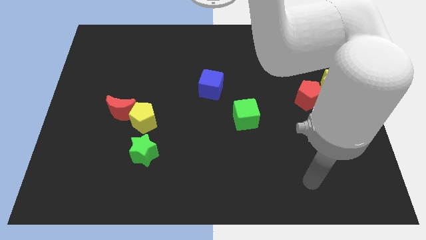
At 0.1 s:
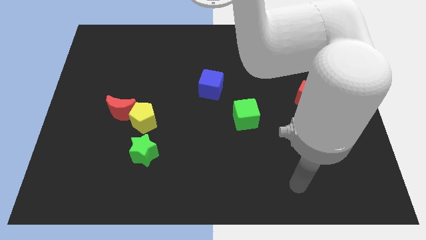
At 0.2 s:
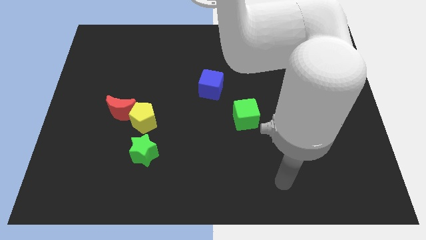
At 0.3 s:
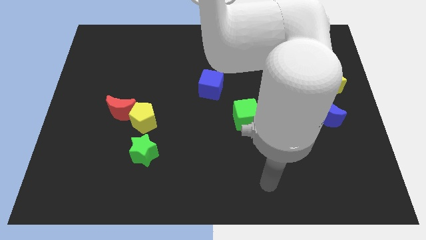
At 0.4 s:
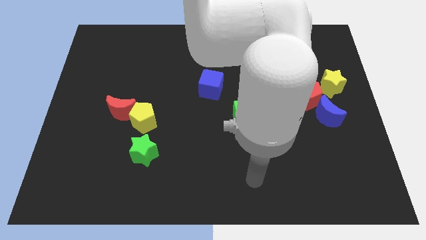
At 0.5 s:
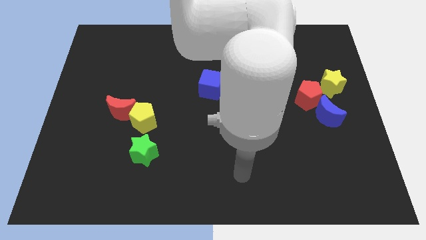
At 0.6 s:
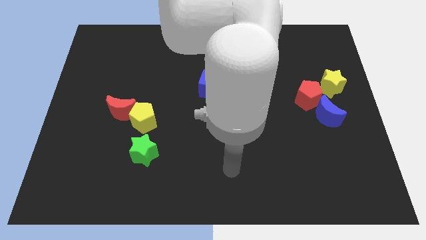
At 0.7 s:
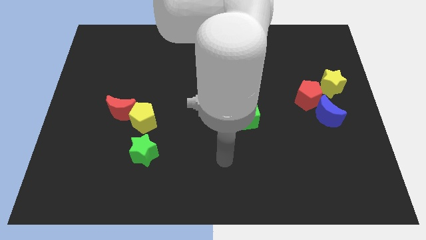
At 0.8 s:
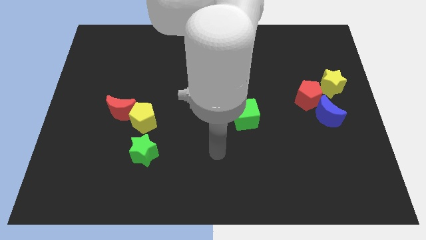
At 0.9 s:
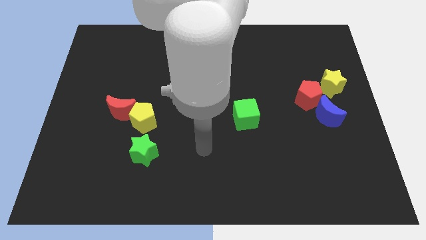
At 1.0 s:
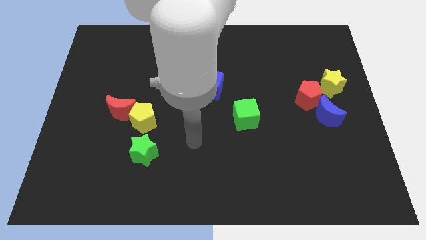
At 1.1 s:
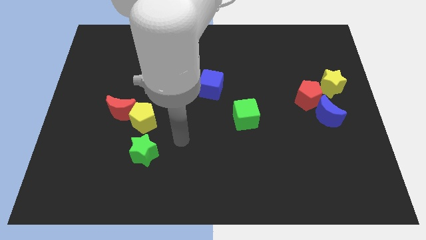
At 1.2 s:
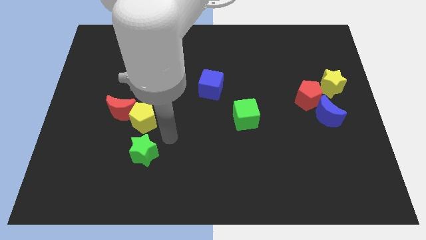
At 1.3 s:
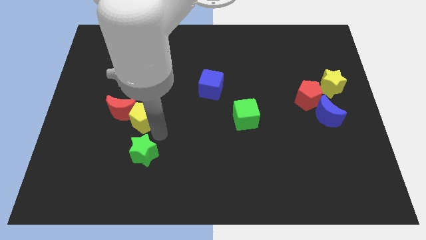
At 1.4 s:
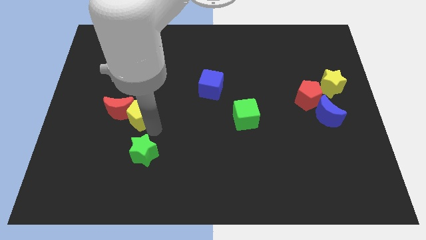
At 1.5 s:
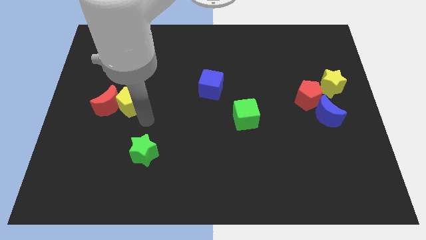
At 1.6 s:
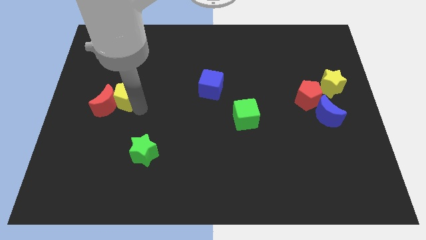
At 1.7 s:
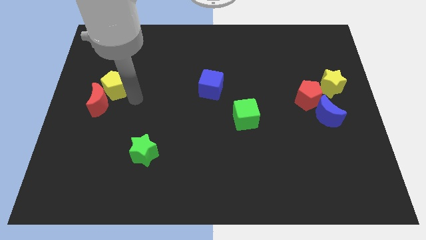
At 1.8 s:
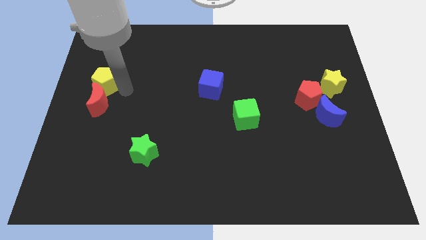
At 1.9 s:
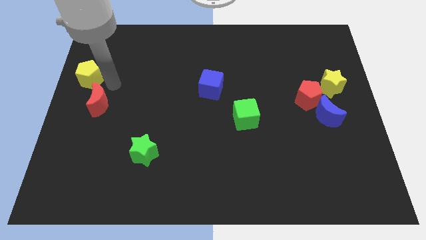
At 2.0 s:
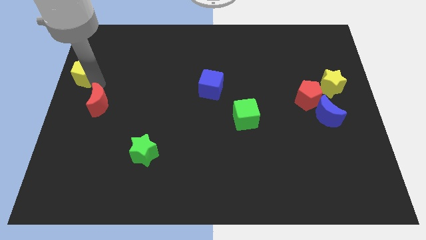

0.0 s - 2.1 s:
pull the red moon apart from the yellow pentagon

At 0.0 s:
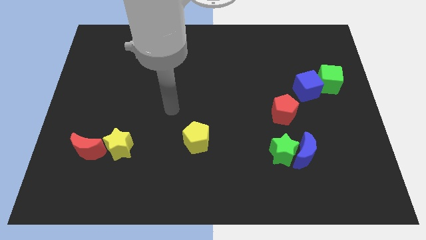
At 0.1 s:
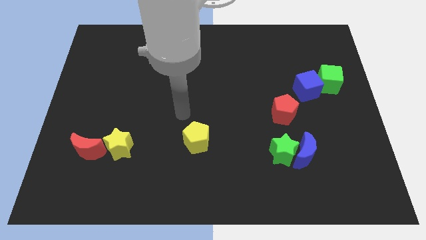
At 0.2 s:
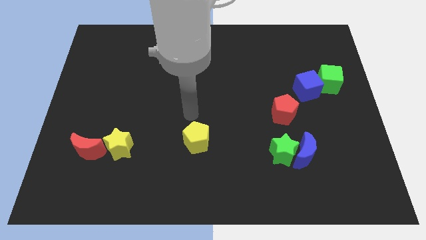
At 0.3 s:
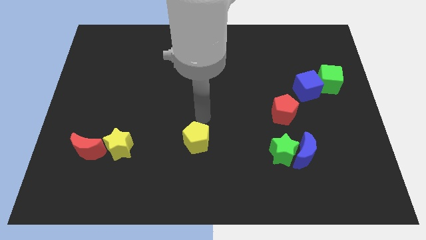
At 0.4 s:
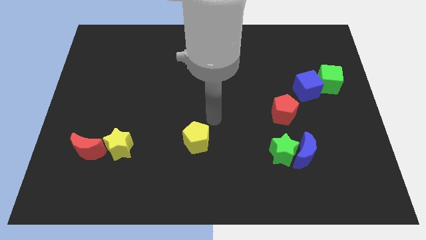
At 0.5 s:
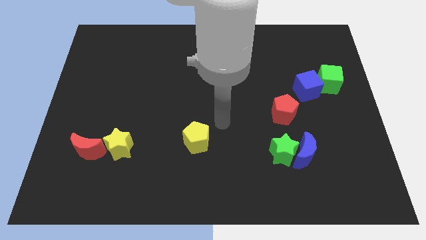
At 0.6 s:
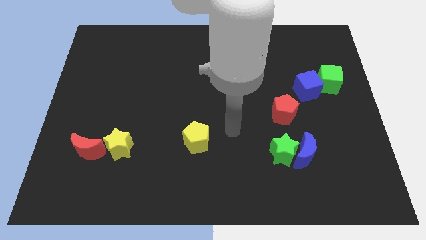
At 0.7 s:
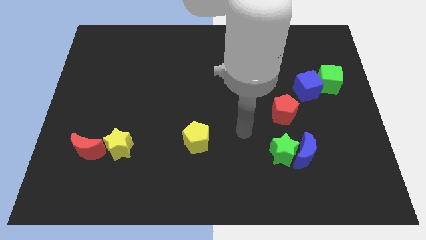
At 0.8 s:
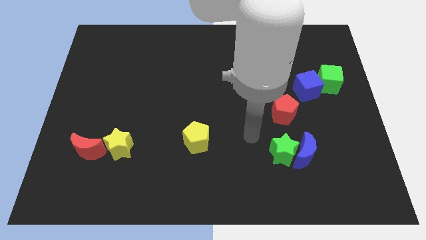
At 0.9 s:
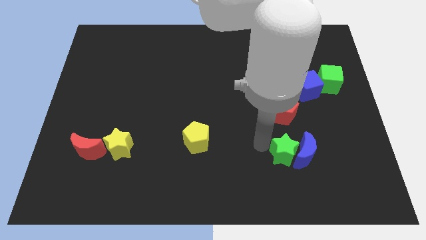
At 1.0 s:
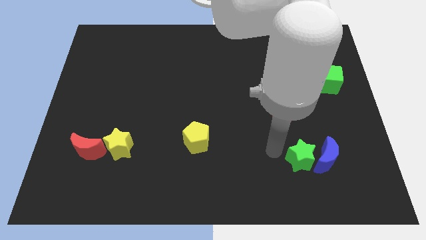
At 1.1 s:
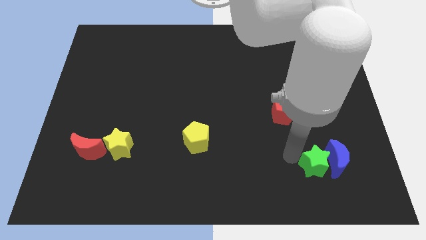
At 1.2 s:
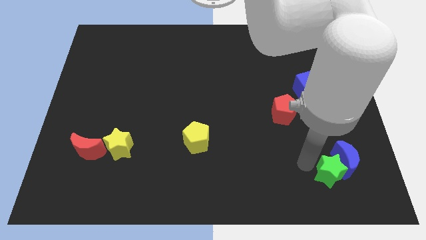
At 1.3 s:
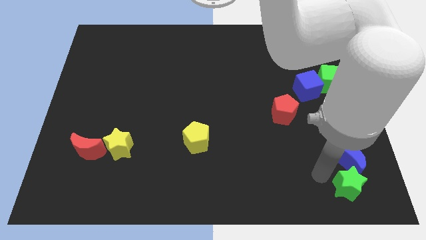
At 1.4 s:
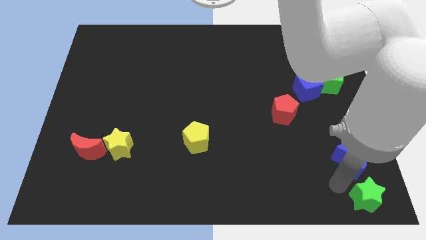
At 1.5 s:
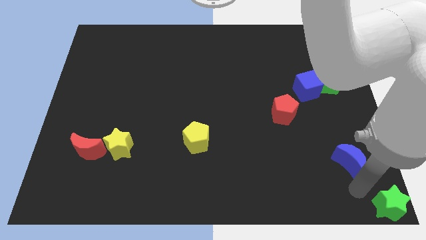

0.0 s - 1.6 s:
separate the blue moon from the green star

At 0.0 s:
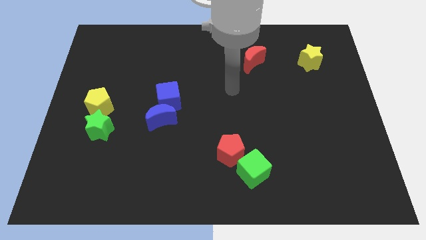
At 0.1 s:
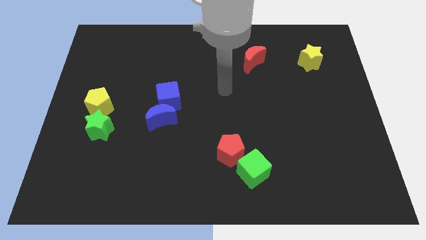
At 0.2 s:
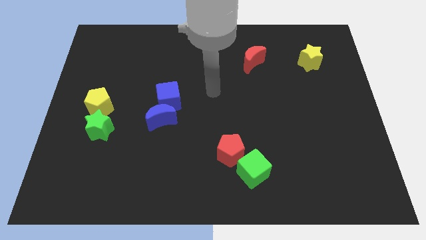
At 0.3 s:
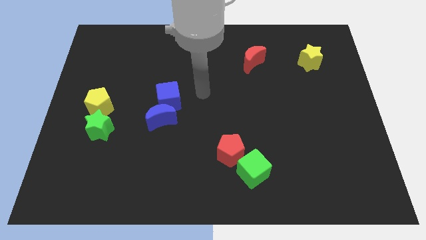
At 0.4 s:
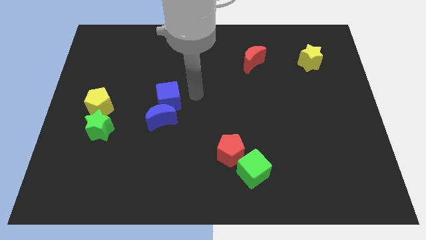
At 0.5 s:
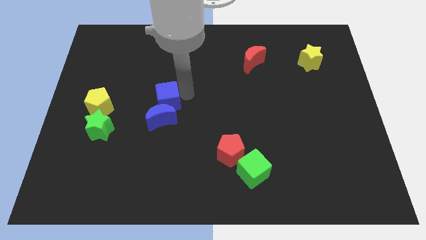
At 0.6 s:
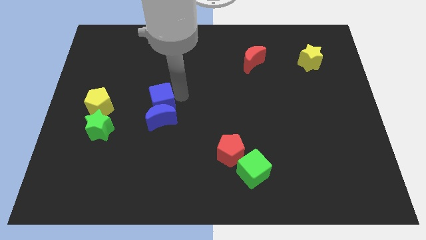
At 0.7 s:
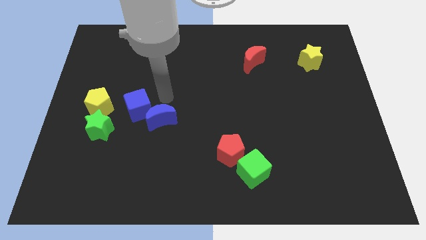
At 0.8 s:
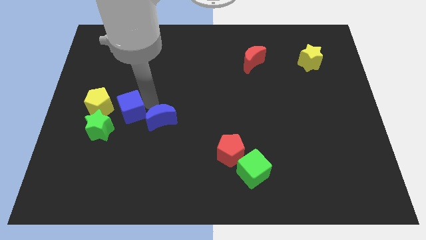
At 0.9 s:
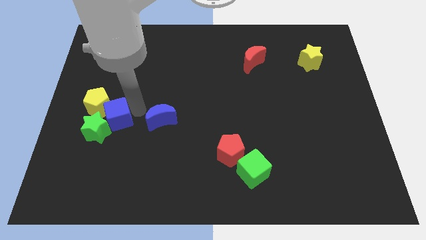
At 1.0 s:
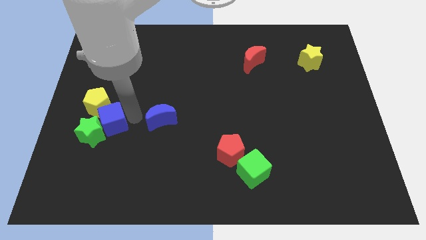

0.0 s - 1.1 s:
move the blue moon away from the blue cube

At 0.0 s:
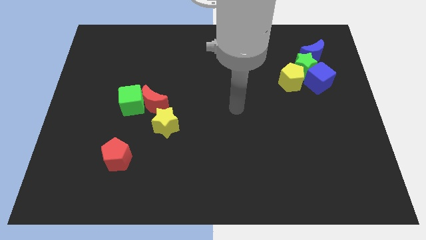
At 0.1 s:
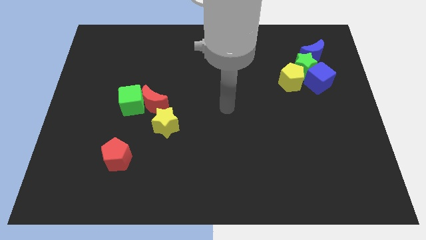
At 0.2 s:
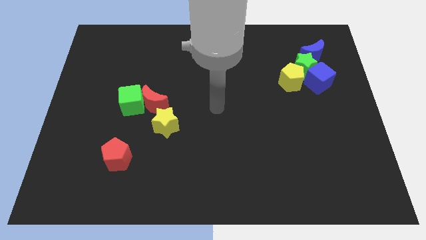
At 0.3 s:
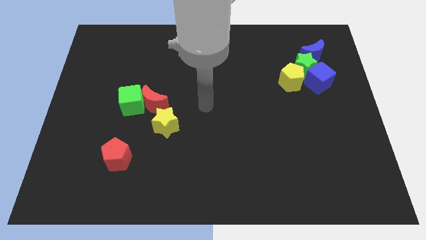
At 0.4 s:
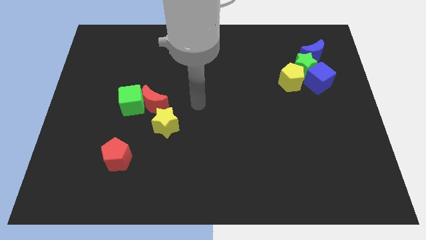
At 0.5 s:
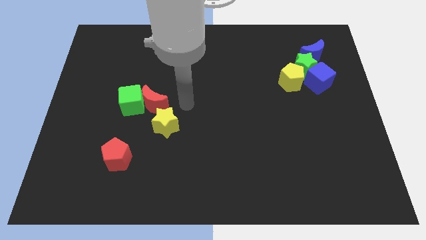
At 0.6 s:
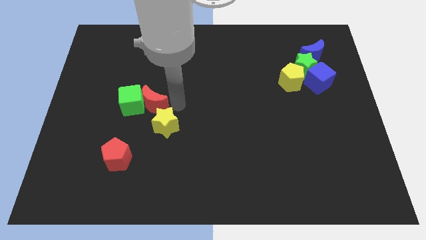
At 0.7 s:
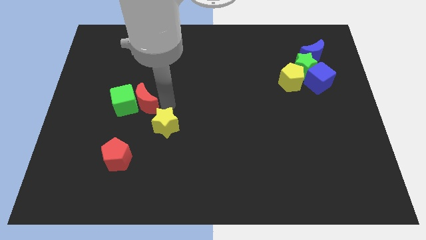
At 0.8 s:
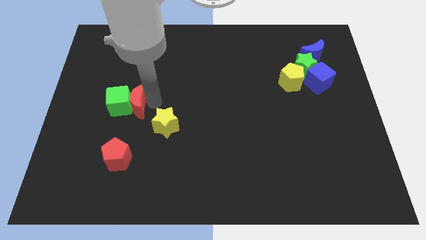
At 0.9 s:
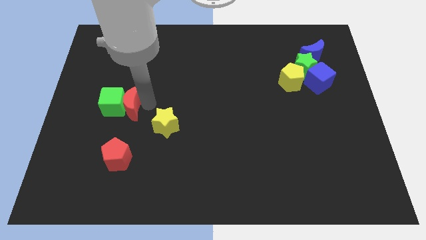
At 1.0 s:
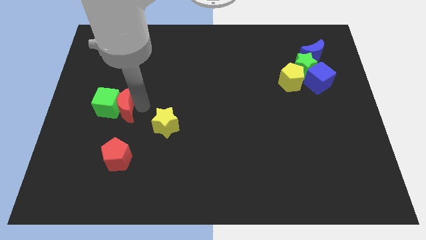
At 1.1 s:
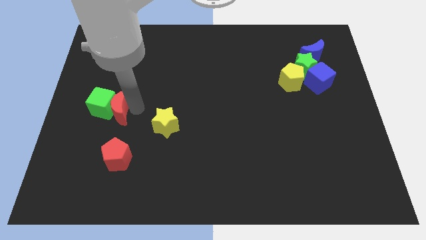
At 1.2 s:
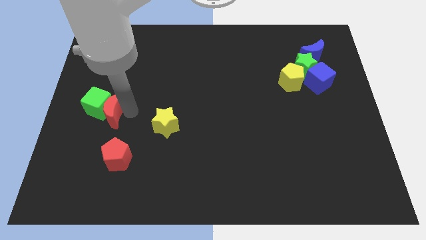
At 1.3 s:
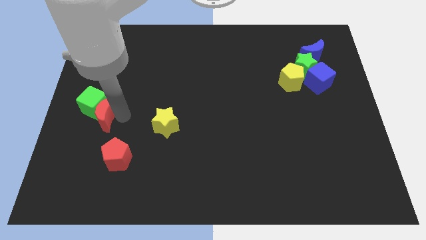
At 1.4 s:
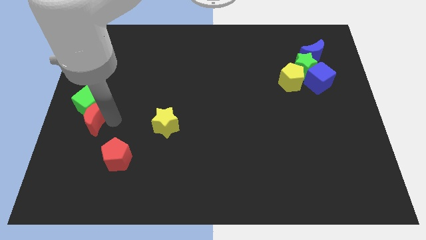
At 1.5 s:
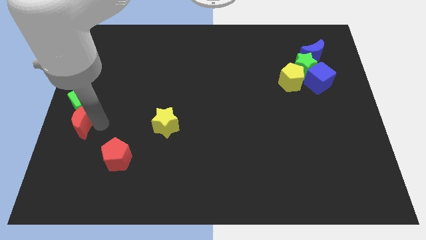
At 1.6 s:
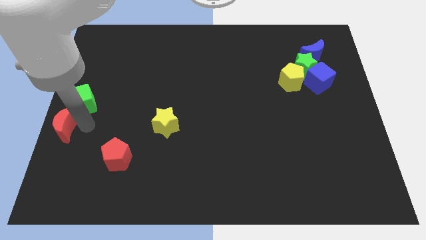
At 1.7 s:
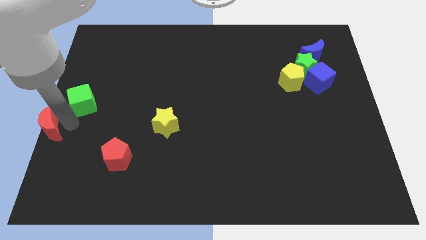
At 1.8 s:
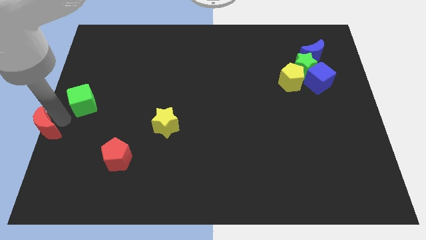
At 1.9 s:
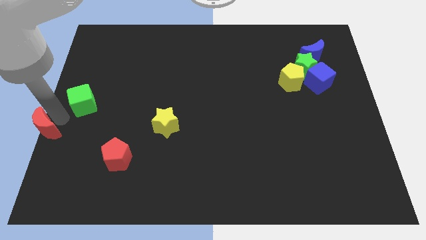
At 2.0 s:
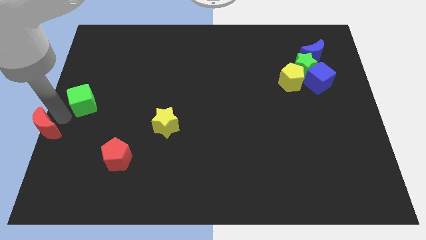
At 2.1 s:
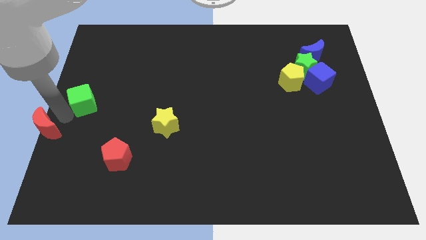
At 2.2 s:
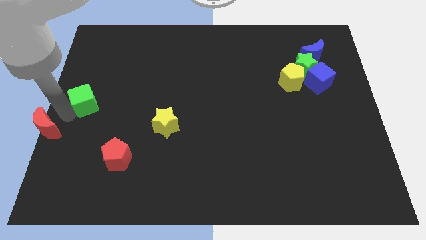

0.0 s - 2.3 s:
separate the green cube from the red moon

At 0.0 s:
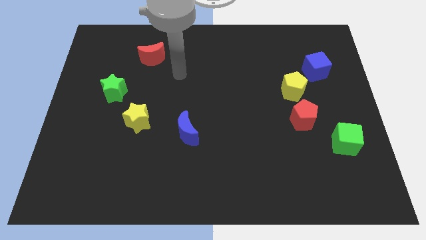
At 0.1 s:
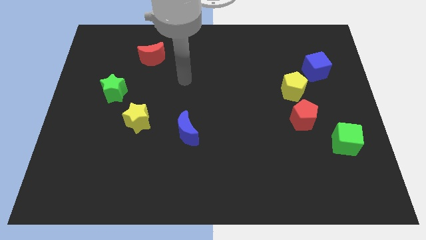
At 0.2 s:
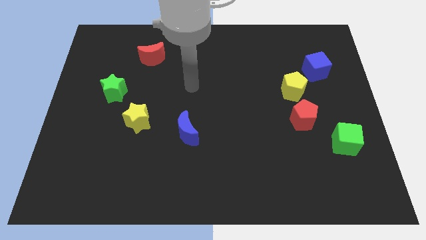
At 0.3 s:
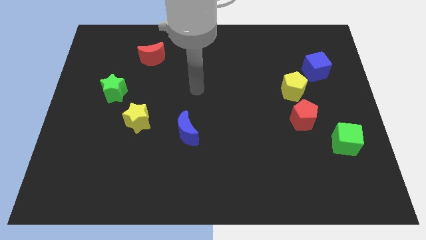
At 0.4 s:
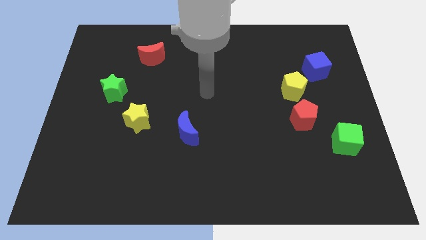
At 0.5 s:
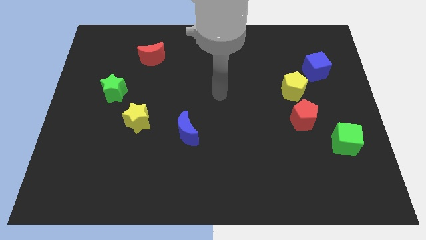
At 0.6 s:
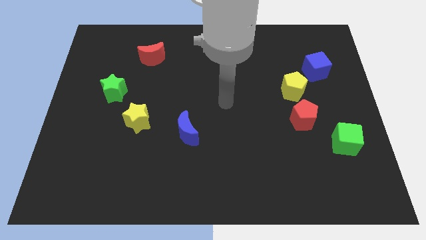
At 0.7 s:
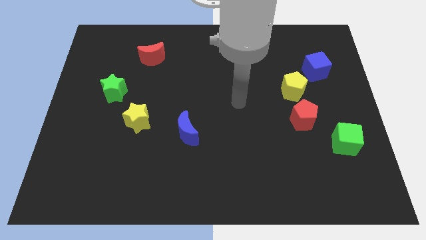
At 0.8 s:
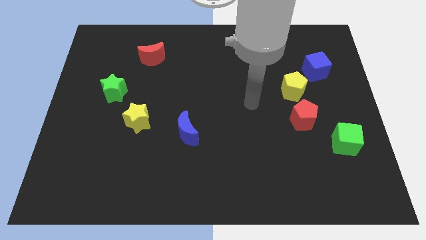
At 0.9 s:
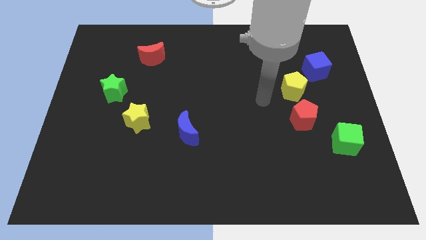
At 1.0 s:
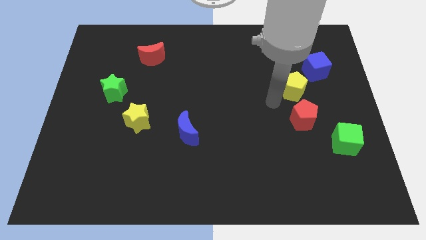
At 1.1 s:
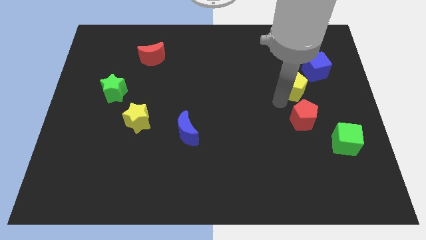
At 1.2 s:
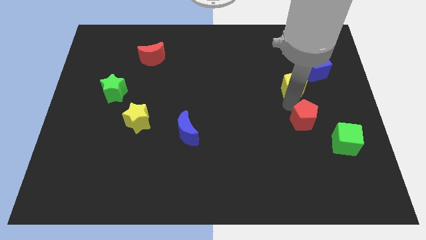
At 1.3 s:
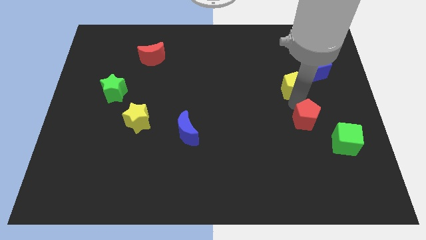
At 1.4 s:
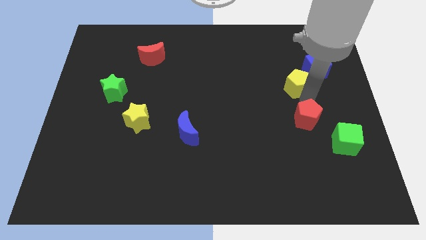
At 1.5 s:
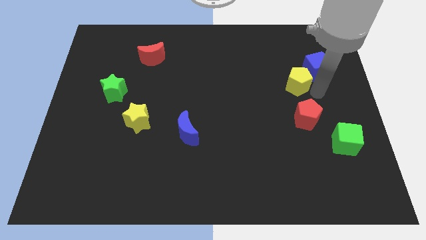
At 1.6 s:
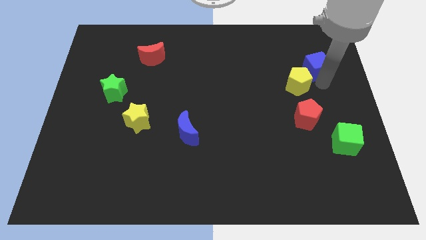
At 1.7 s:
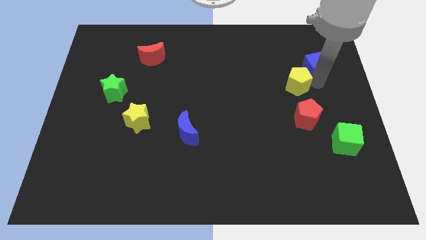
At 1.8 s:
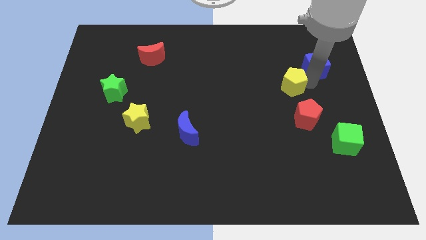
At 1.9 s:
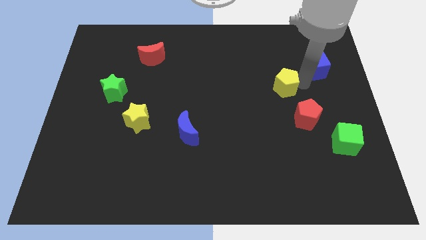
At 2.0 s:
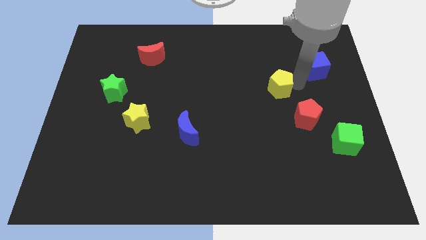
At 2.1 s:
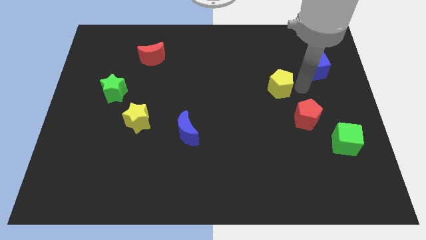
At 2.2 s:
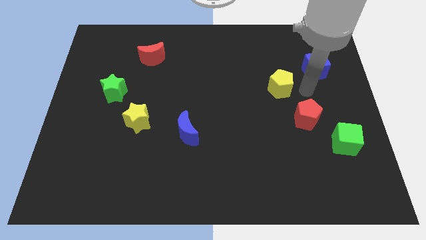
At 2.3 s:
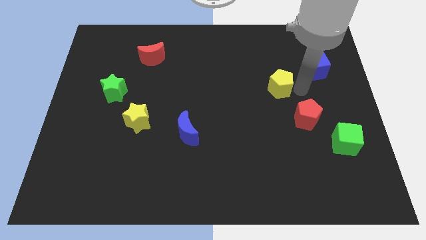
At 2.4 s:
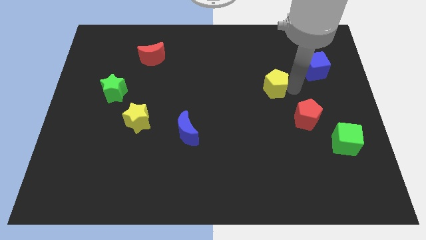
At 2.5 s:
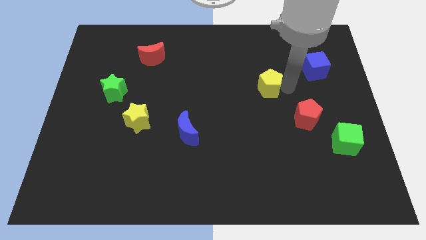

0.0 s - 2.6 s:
pull the yellow pentagon apart from the red pentagon and blue cube
